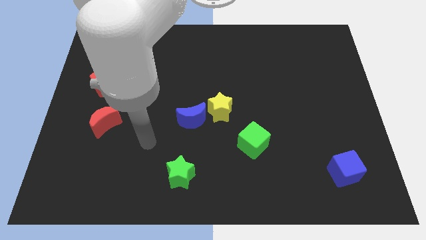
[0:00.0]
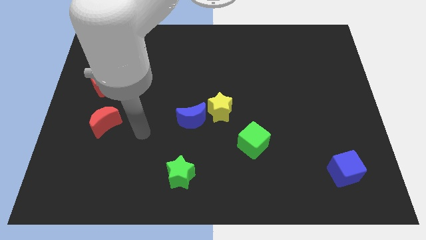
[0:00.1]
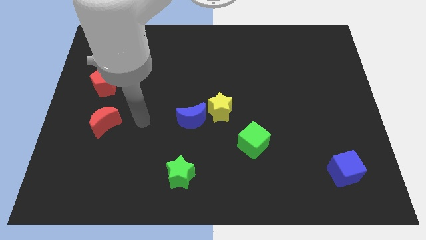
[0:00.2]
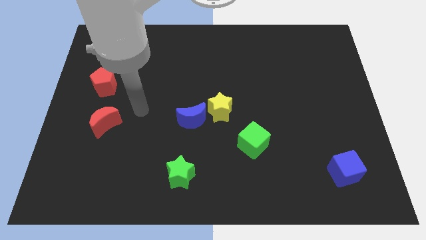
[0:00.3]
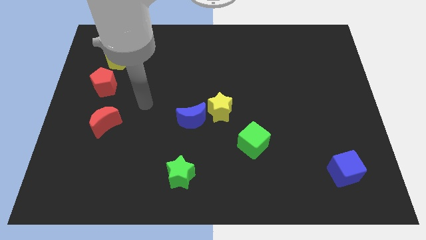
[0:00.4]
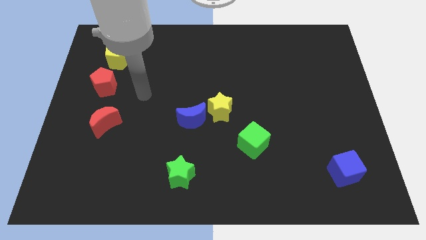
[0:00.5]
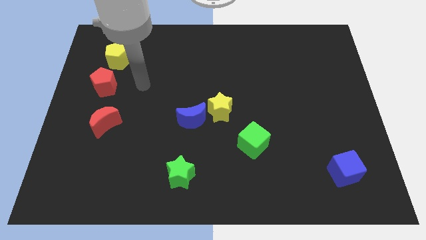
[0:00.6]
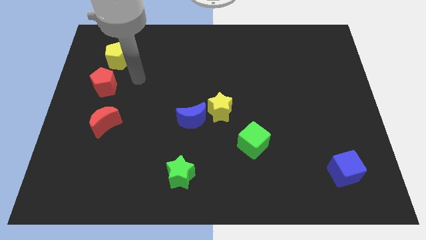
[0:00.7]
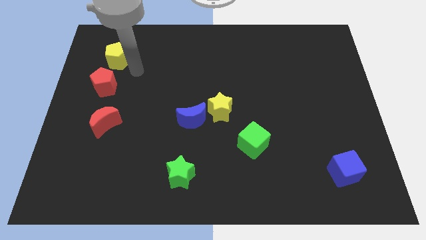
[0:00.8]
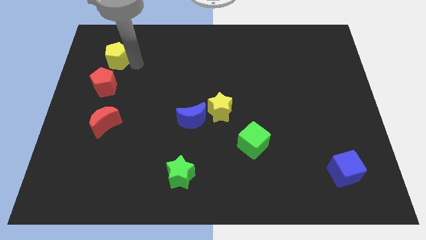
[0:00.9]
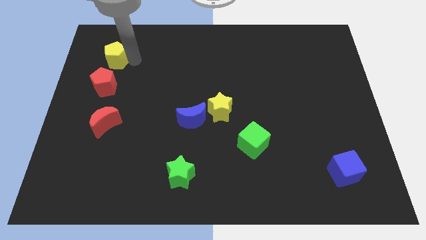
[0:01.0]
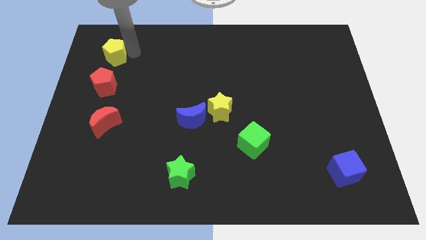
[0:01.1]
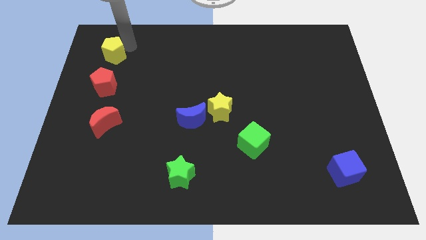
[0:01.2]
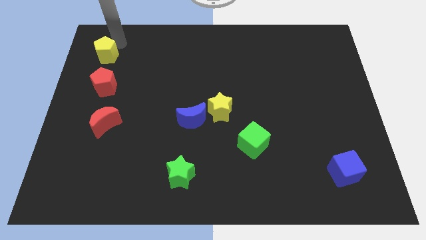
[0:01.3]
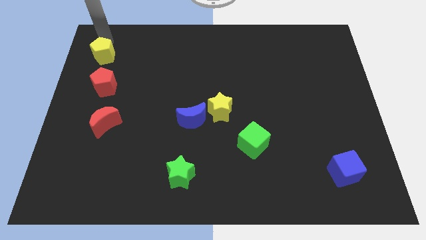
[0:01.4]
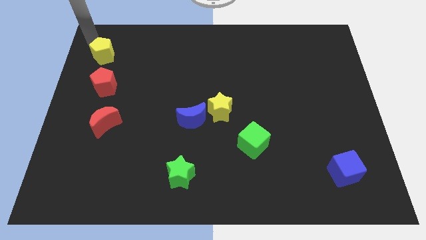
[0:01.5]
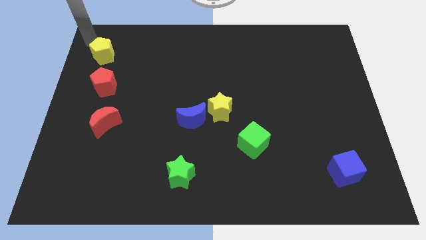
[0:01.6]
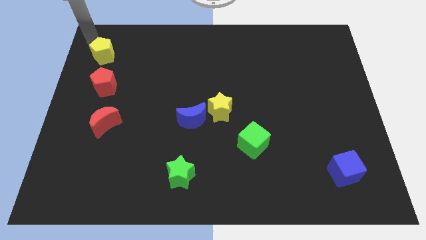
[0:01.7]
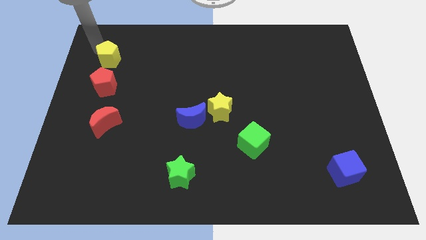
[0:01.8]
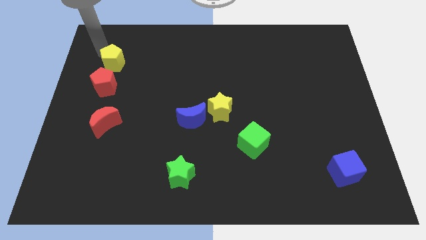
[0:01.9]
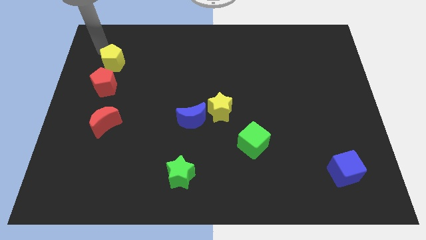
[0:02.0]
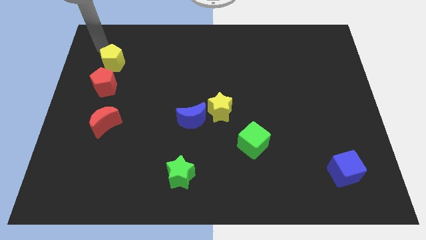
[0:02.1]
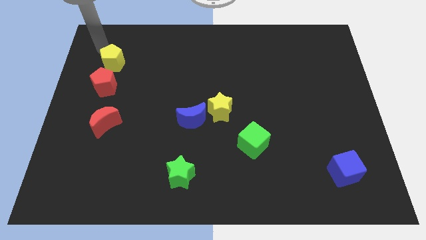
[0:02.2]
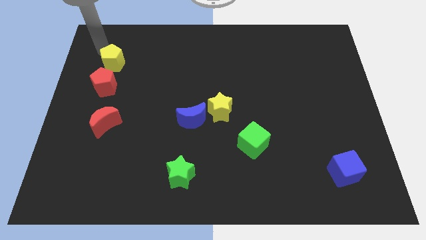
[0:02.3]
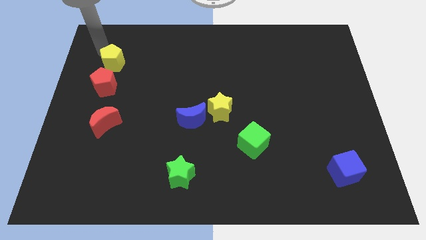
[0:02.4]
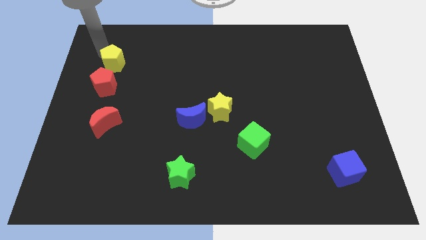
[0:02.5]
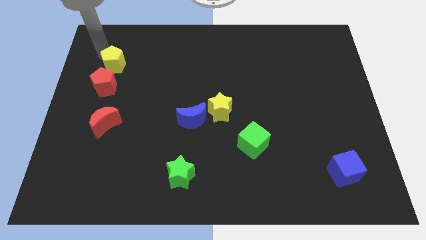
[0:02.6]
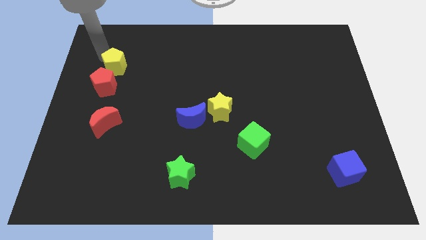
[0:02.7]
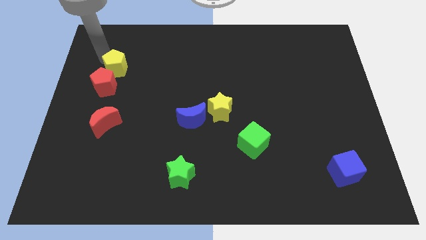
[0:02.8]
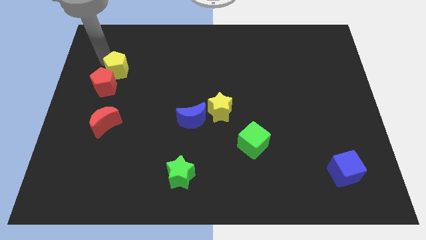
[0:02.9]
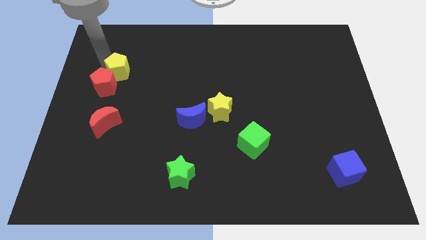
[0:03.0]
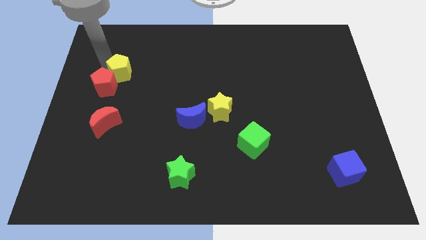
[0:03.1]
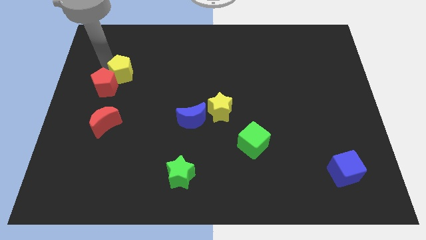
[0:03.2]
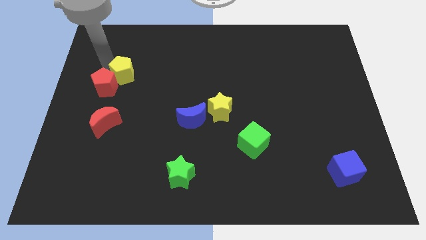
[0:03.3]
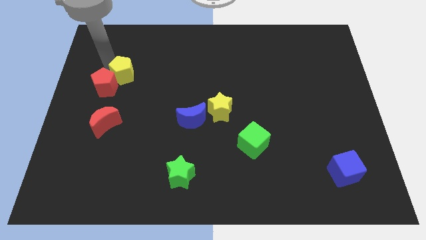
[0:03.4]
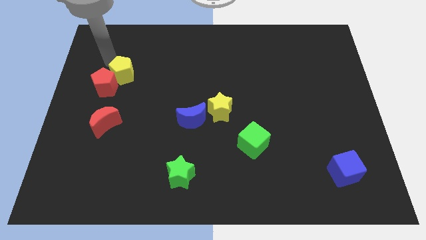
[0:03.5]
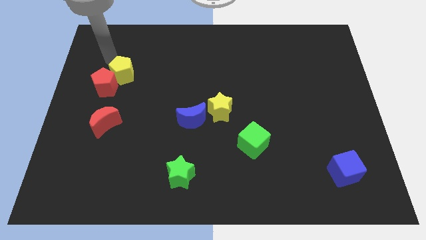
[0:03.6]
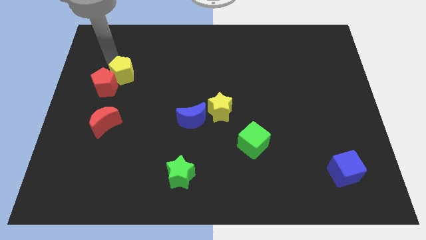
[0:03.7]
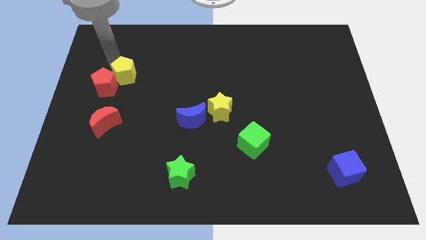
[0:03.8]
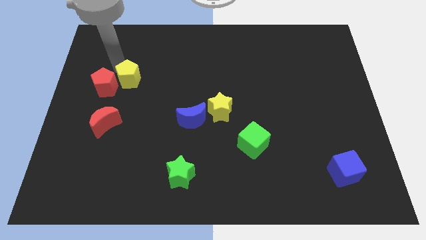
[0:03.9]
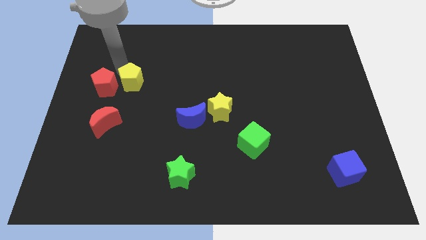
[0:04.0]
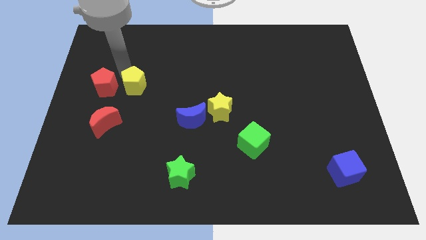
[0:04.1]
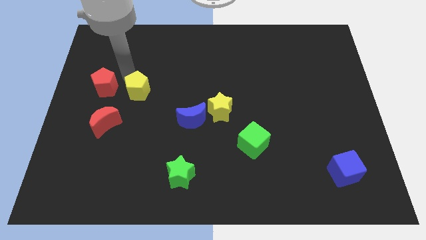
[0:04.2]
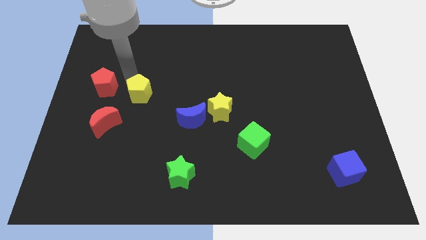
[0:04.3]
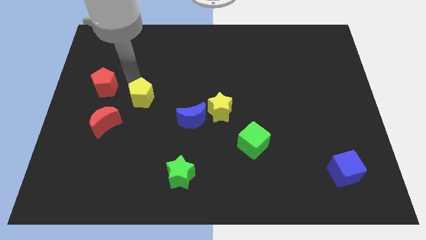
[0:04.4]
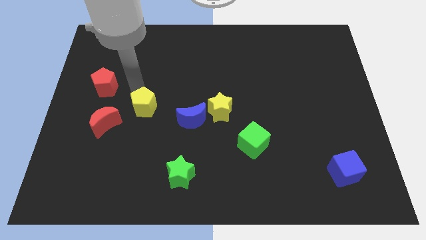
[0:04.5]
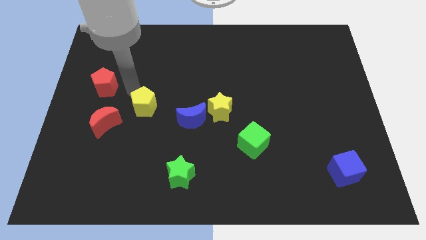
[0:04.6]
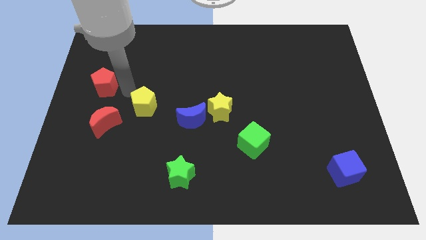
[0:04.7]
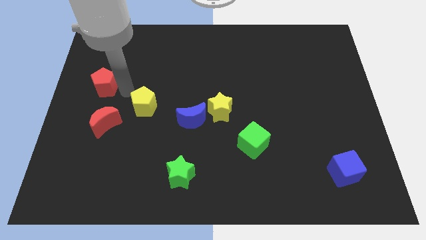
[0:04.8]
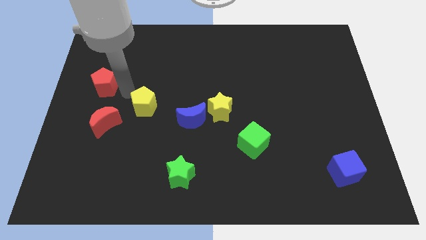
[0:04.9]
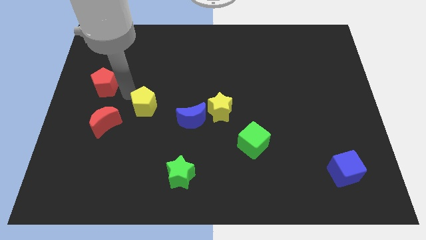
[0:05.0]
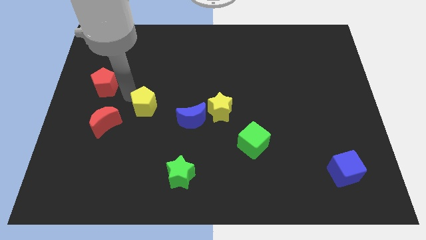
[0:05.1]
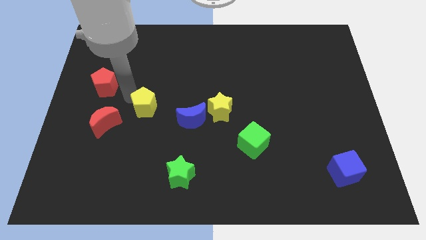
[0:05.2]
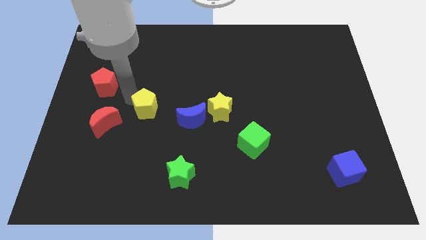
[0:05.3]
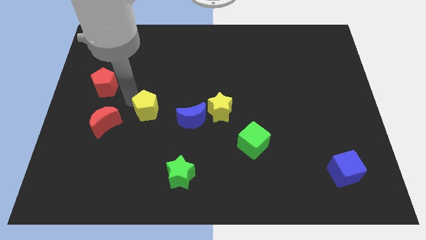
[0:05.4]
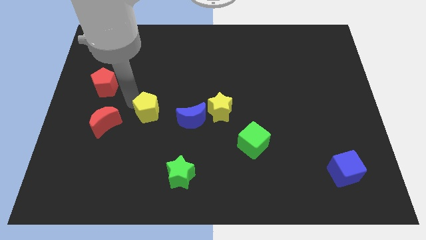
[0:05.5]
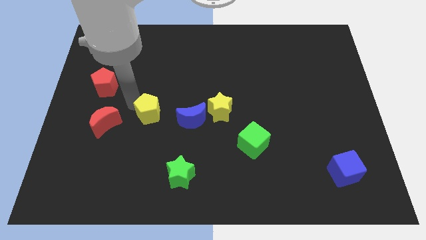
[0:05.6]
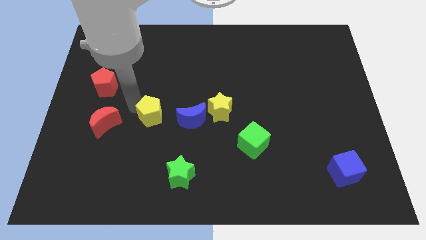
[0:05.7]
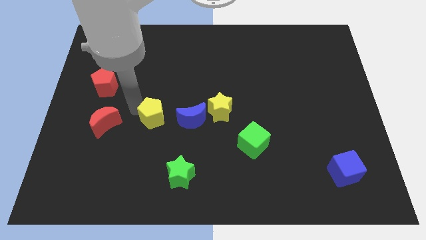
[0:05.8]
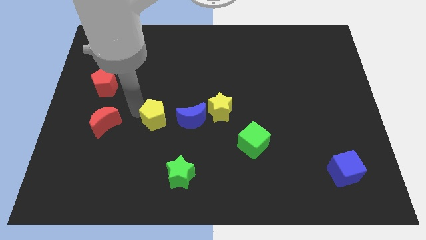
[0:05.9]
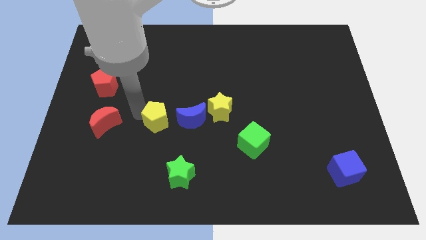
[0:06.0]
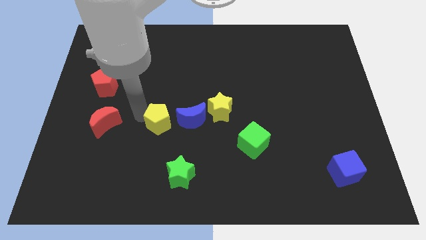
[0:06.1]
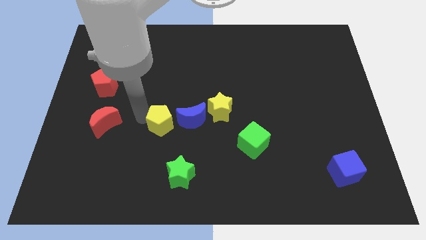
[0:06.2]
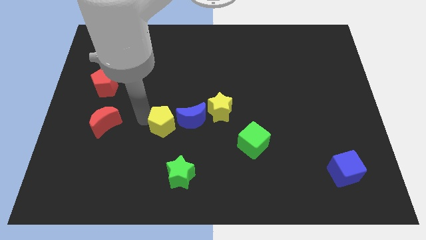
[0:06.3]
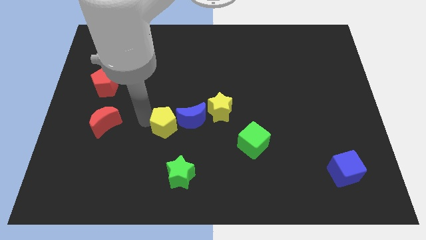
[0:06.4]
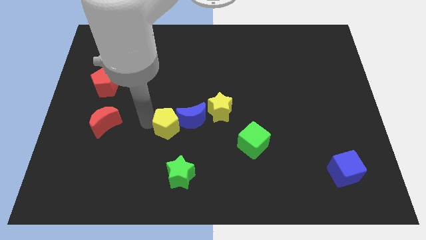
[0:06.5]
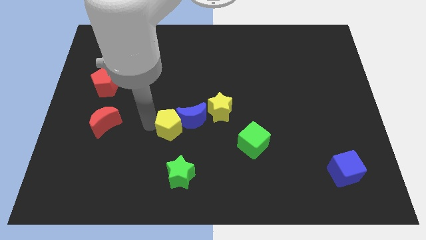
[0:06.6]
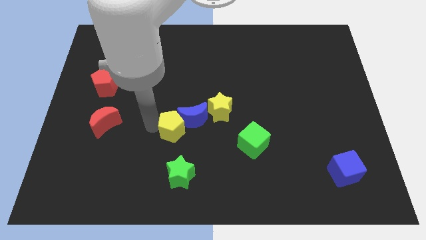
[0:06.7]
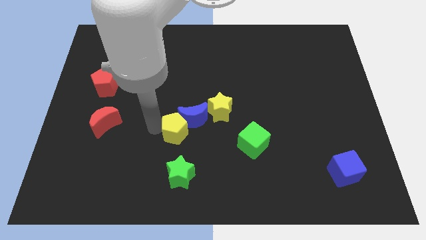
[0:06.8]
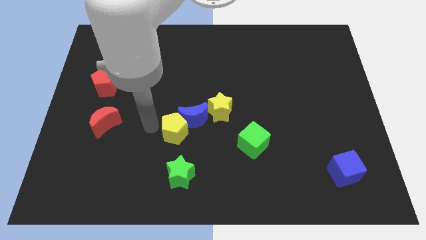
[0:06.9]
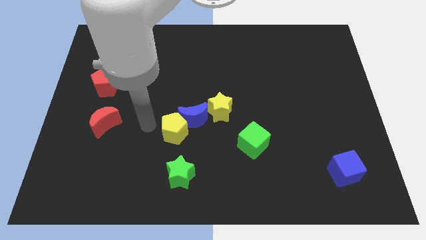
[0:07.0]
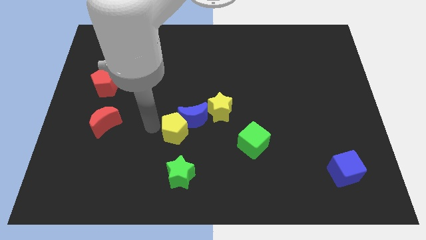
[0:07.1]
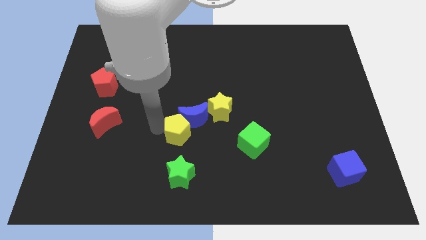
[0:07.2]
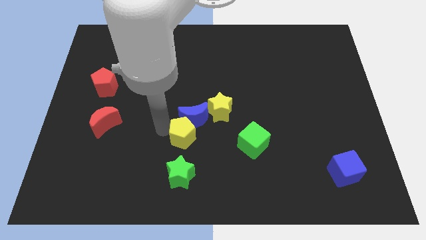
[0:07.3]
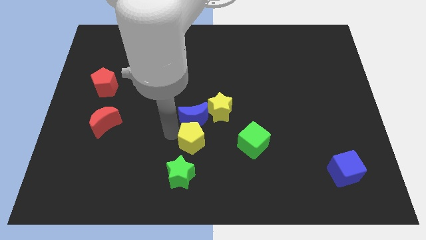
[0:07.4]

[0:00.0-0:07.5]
push the yellow pentagon to the bottom right of the blue moon
